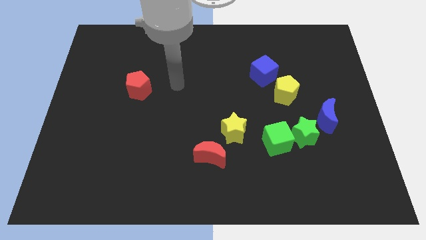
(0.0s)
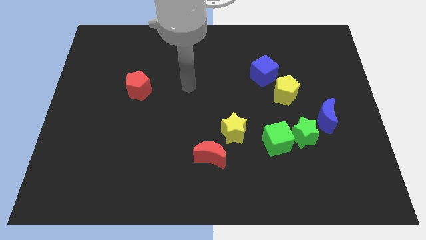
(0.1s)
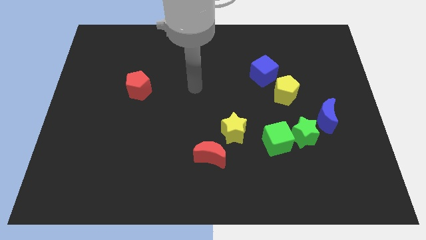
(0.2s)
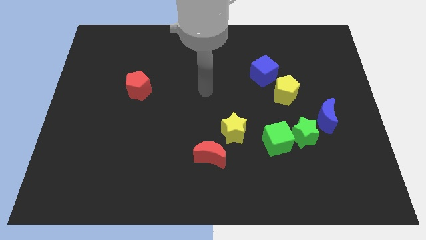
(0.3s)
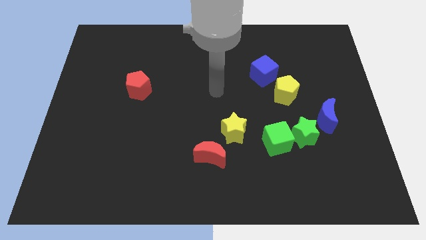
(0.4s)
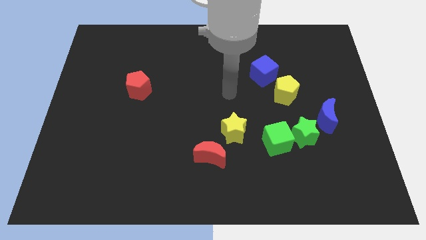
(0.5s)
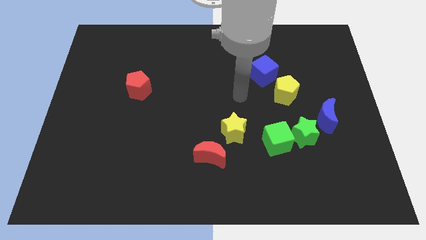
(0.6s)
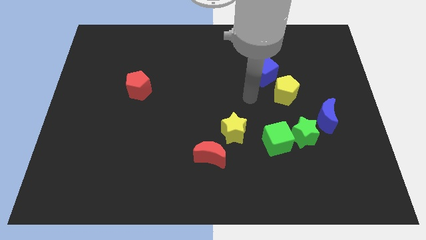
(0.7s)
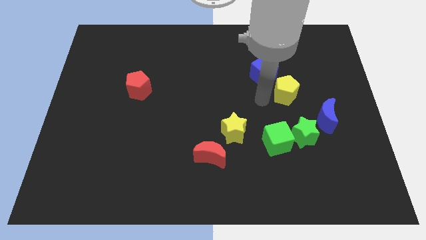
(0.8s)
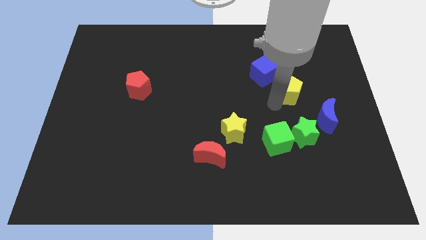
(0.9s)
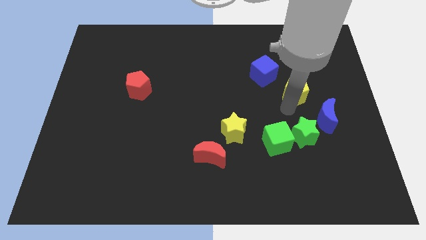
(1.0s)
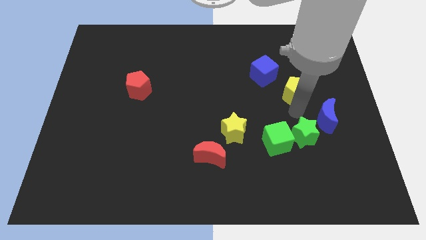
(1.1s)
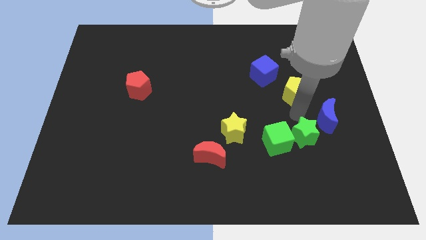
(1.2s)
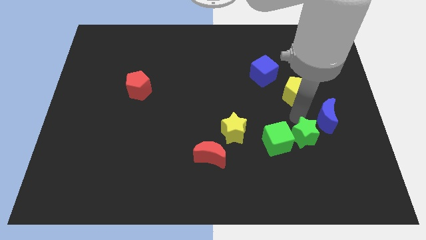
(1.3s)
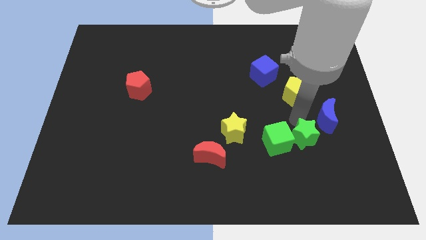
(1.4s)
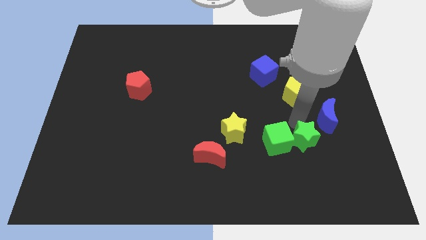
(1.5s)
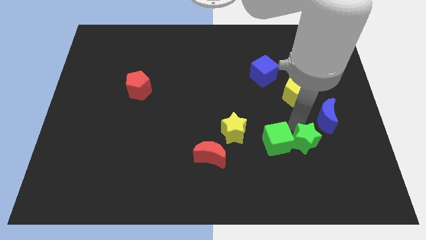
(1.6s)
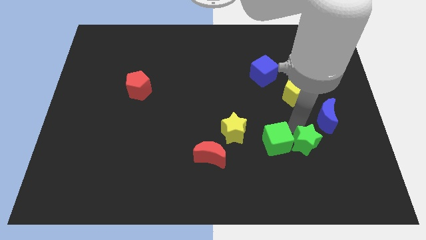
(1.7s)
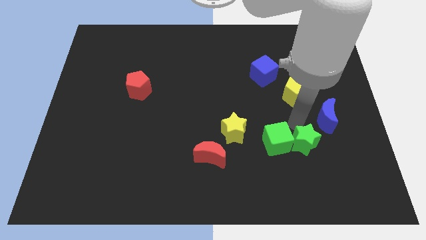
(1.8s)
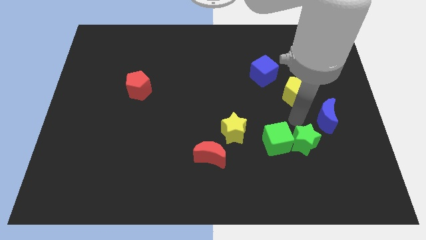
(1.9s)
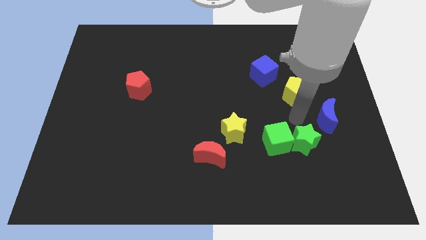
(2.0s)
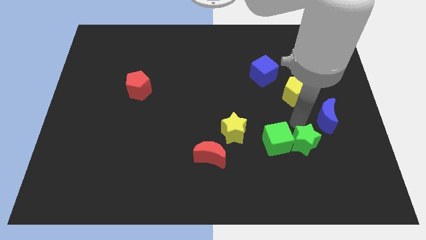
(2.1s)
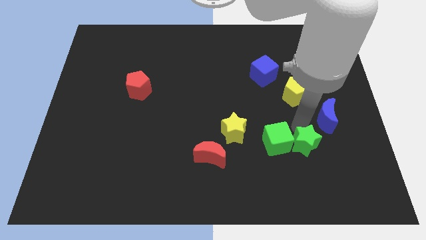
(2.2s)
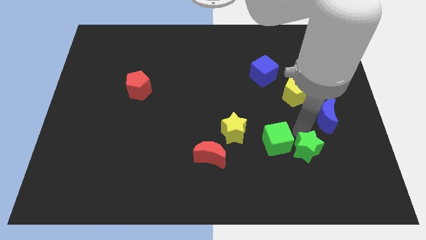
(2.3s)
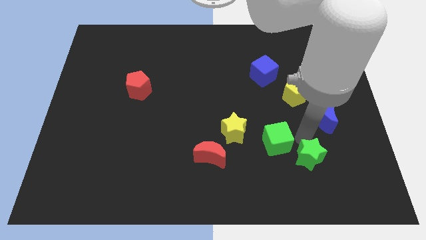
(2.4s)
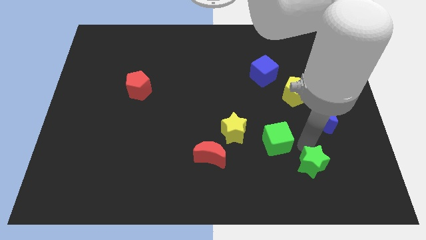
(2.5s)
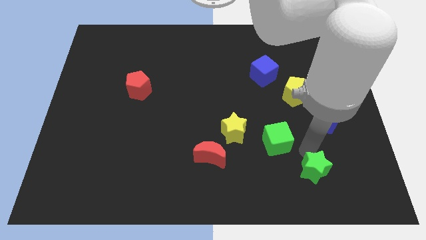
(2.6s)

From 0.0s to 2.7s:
pull the green star apart from the green cube and blue moon

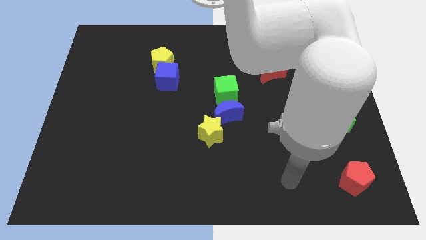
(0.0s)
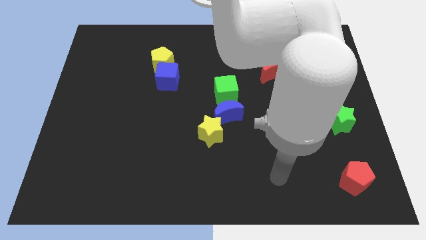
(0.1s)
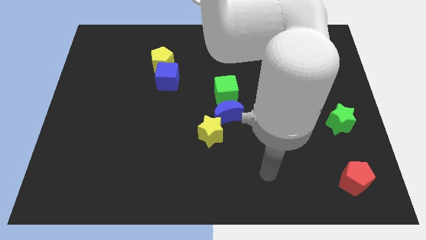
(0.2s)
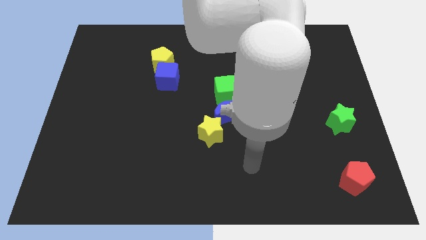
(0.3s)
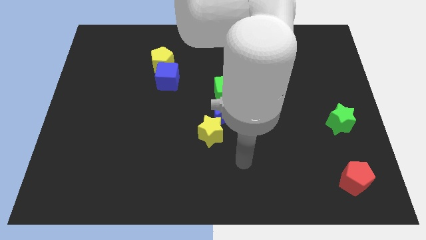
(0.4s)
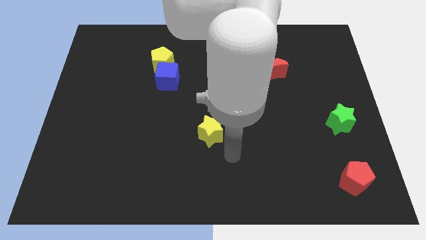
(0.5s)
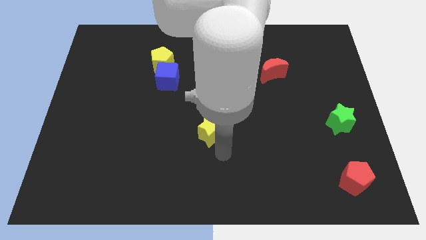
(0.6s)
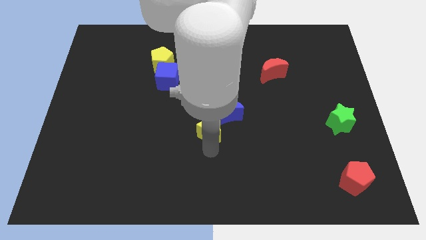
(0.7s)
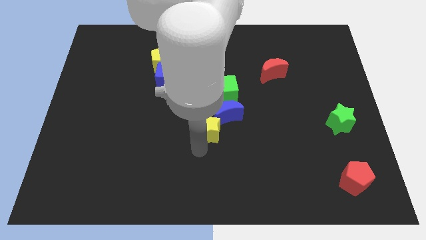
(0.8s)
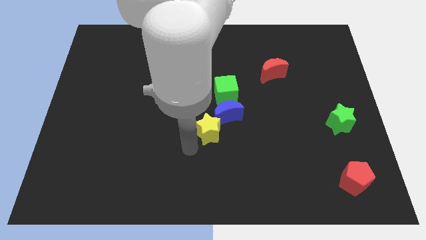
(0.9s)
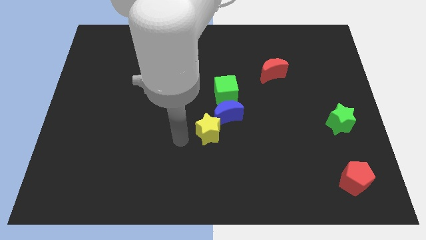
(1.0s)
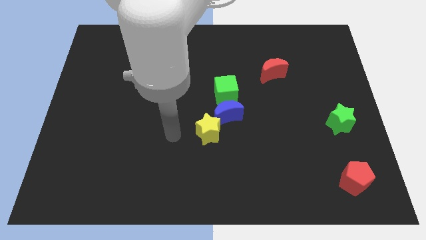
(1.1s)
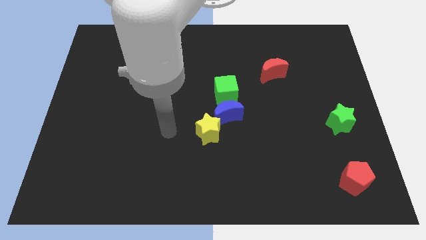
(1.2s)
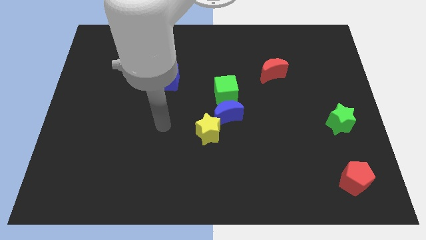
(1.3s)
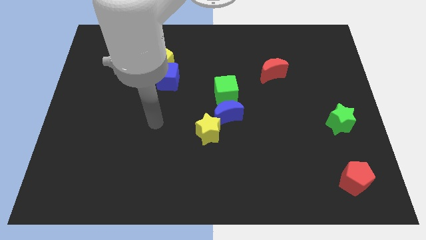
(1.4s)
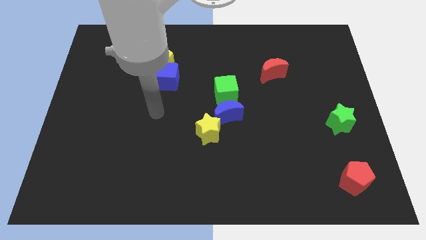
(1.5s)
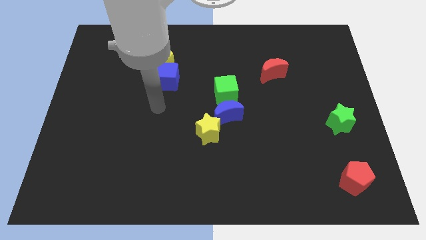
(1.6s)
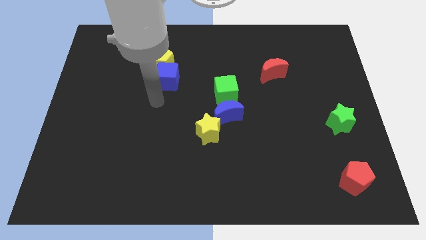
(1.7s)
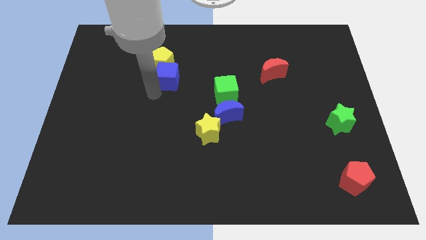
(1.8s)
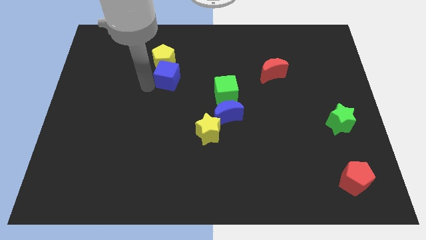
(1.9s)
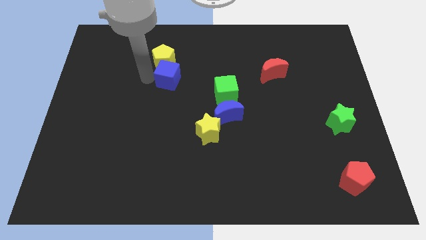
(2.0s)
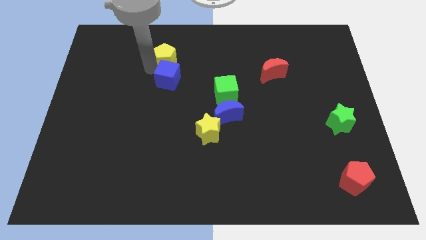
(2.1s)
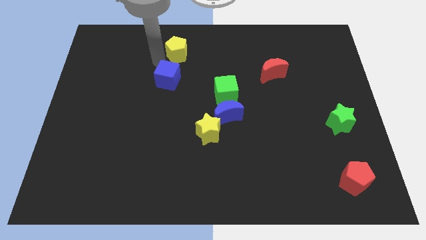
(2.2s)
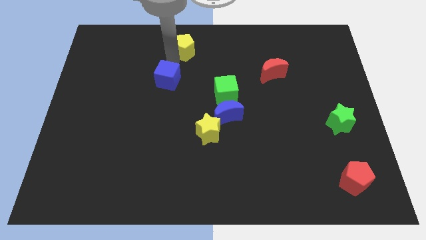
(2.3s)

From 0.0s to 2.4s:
move the blue cube away from the yellow pentagon

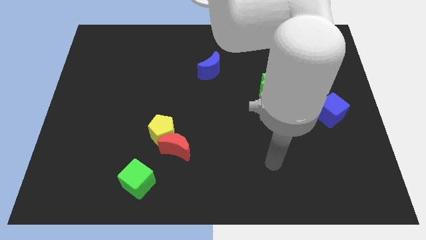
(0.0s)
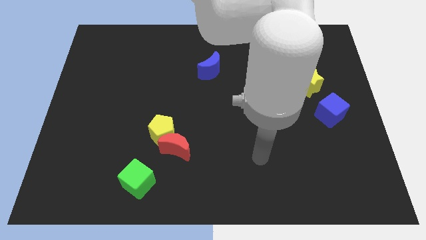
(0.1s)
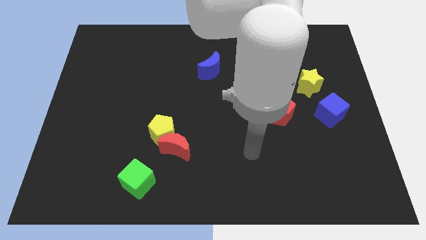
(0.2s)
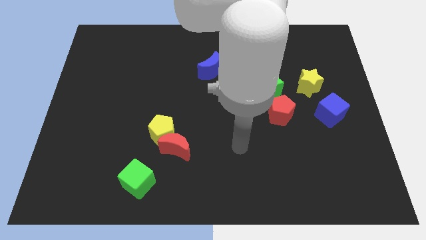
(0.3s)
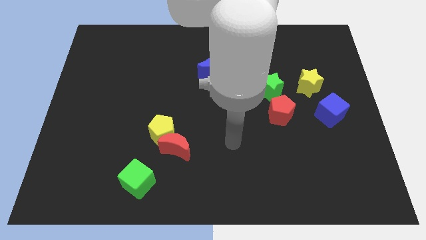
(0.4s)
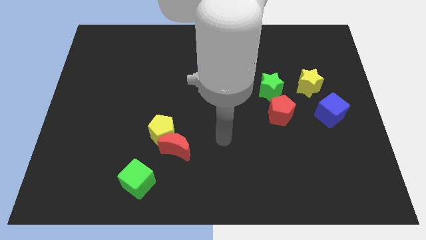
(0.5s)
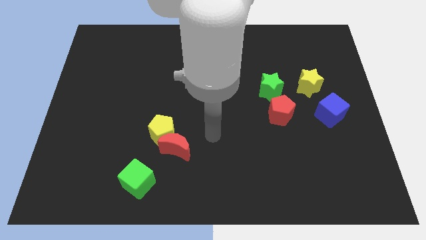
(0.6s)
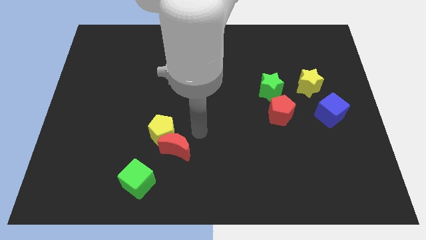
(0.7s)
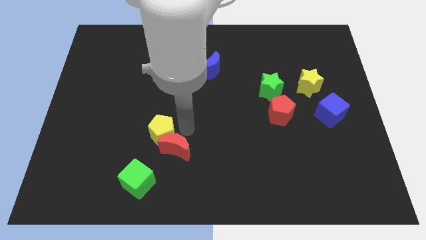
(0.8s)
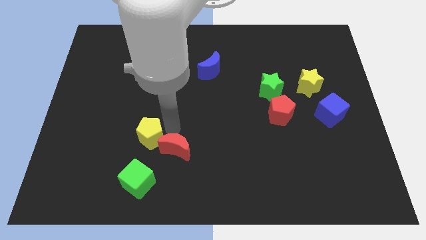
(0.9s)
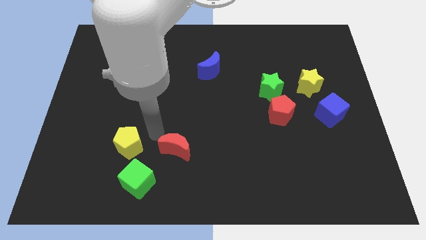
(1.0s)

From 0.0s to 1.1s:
move the red moon away from the yellow pentagon

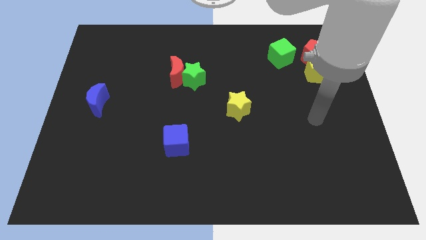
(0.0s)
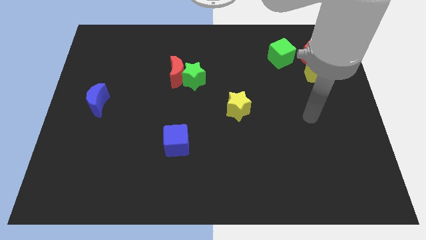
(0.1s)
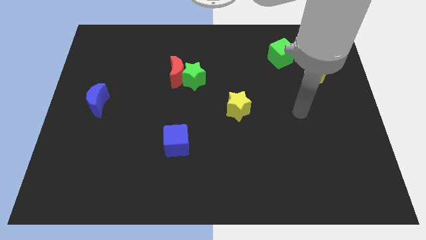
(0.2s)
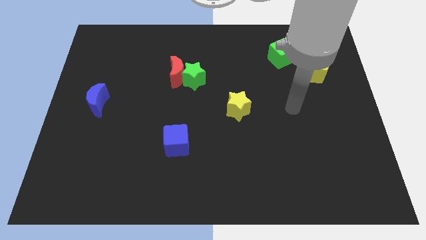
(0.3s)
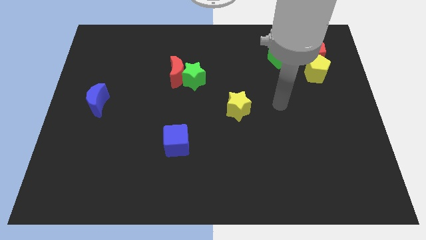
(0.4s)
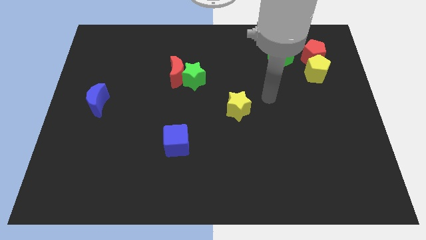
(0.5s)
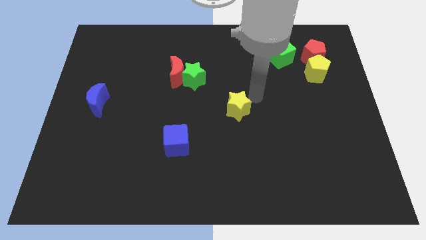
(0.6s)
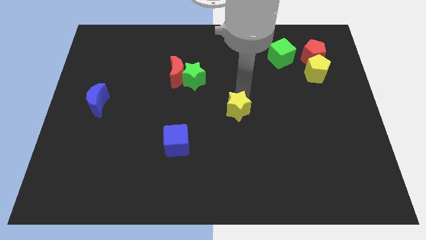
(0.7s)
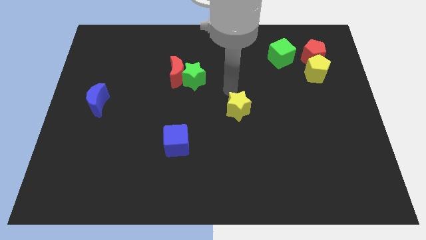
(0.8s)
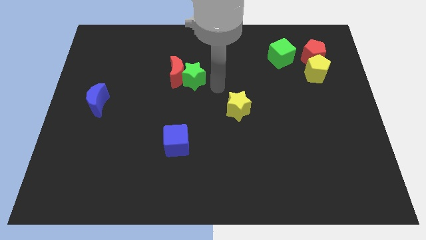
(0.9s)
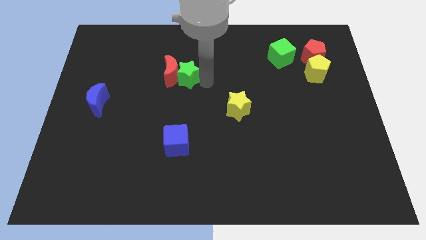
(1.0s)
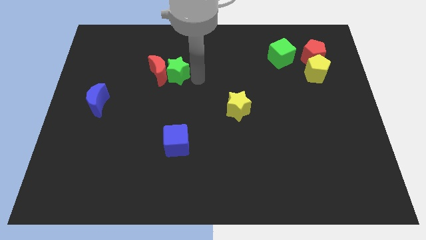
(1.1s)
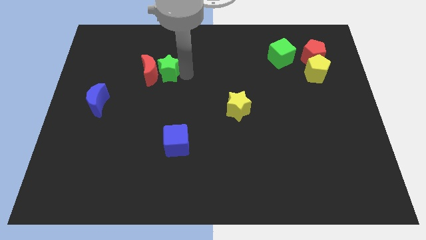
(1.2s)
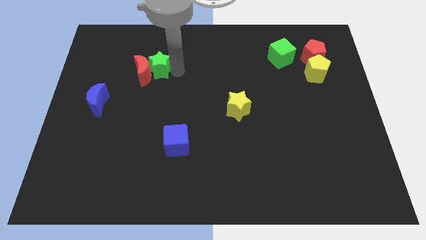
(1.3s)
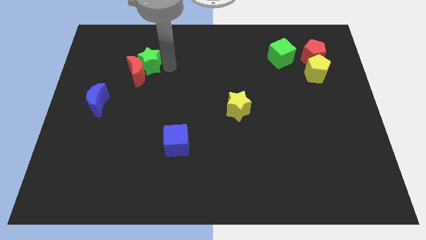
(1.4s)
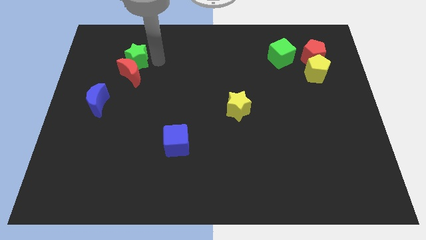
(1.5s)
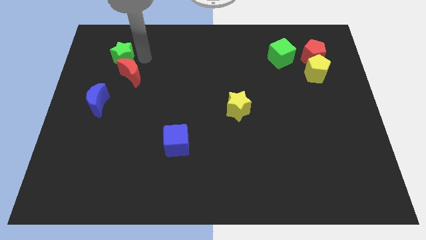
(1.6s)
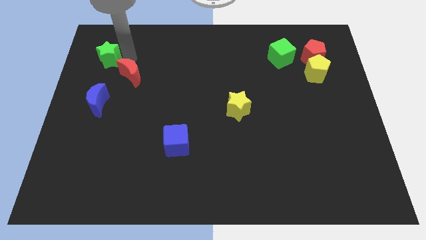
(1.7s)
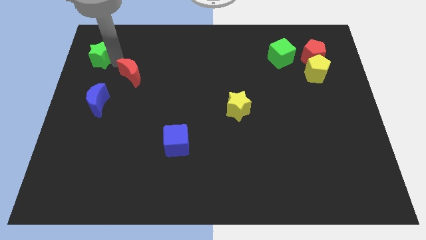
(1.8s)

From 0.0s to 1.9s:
separate the red moon from the green star

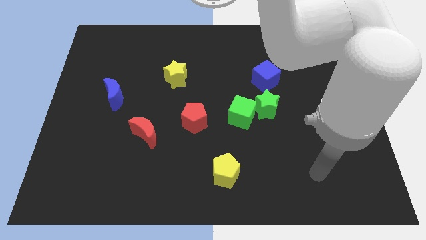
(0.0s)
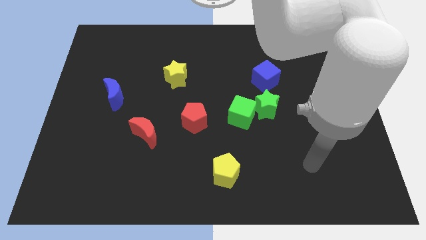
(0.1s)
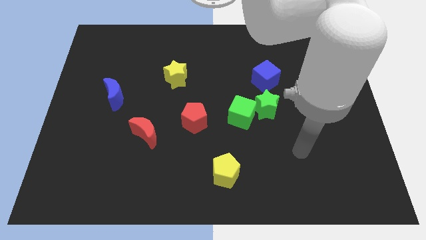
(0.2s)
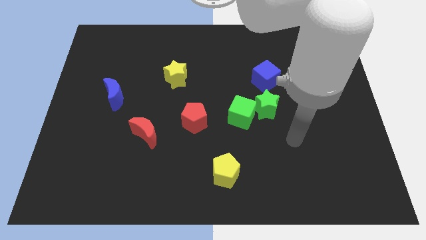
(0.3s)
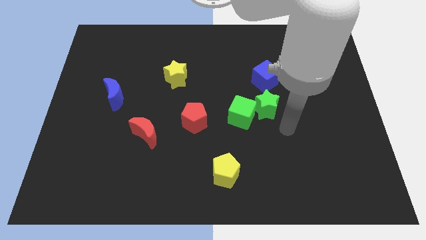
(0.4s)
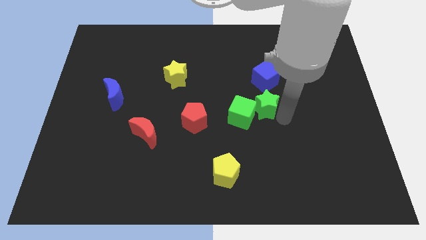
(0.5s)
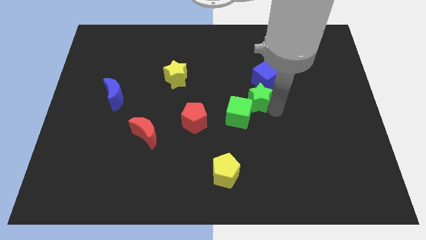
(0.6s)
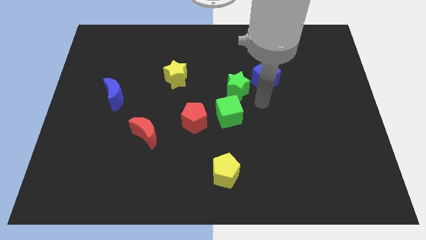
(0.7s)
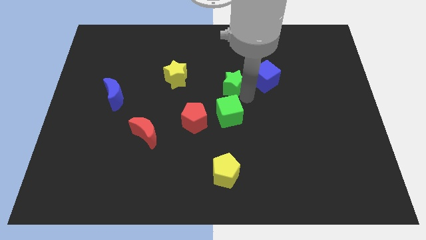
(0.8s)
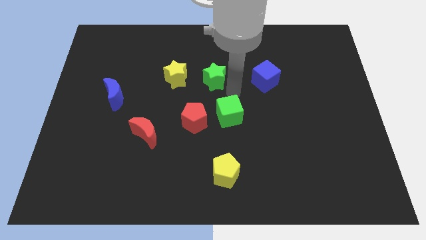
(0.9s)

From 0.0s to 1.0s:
pull the green cube apart from the green star

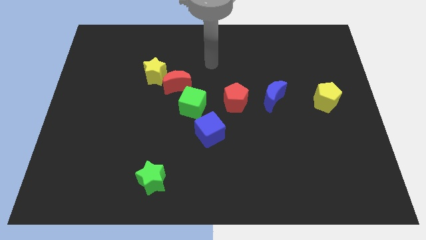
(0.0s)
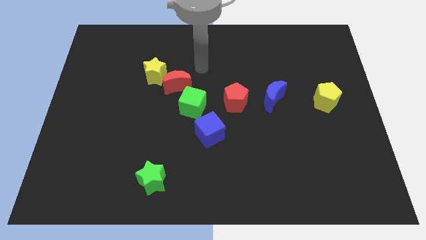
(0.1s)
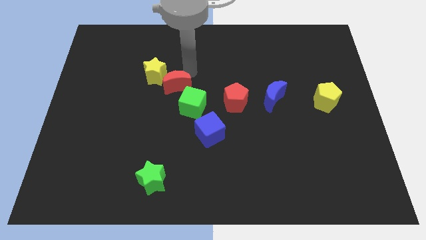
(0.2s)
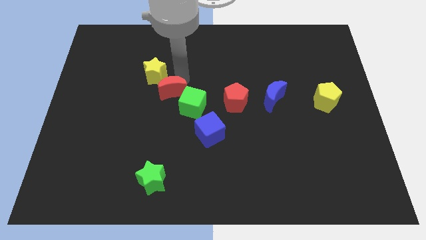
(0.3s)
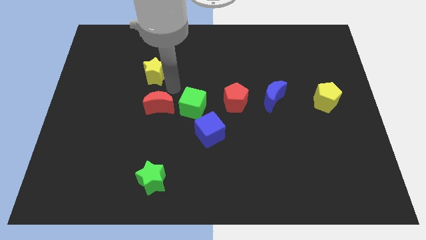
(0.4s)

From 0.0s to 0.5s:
separate the yellow star from the red moon
